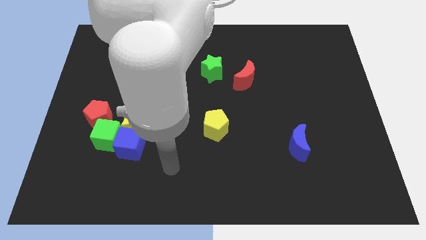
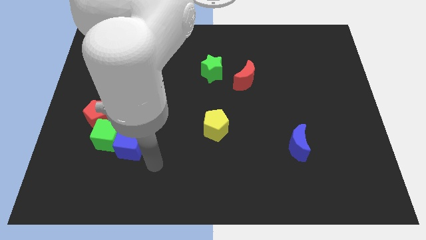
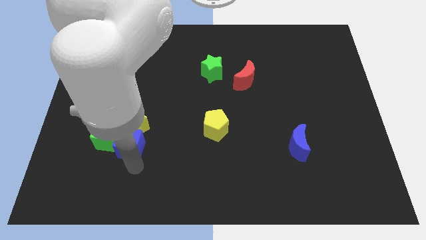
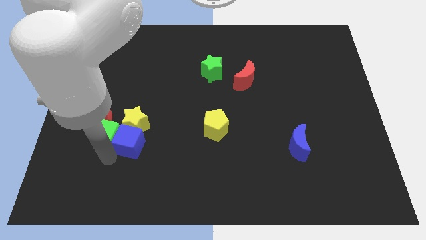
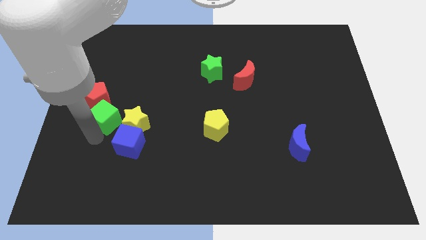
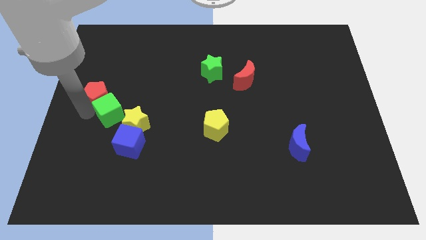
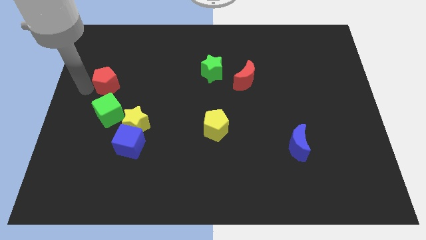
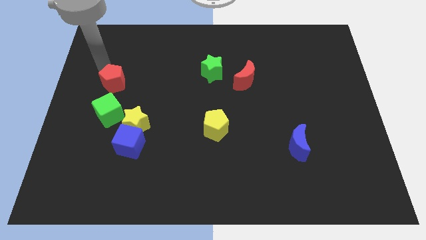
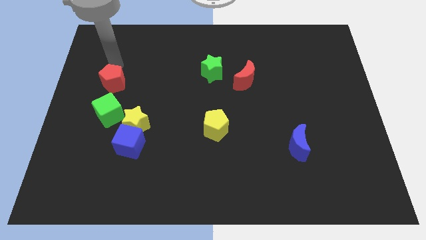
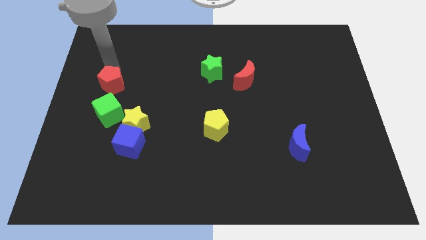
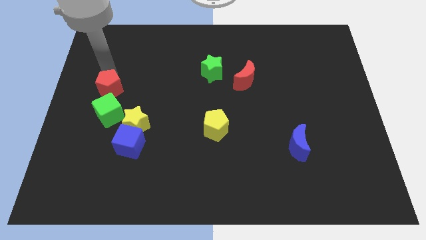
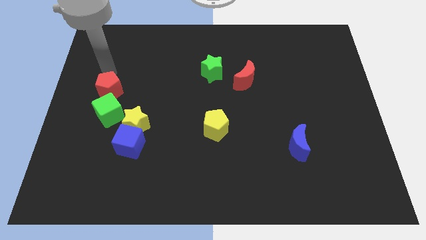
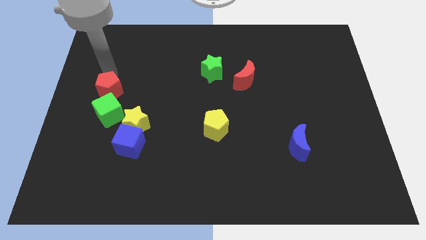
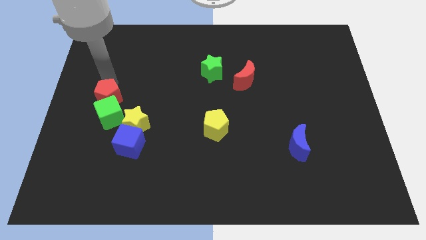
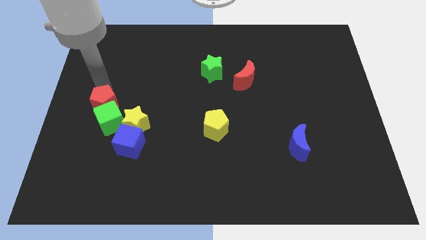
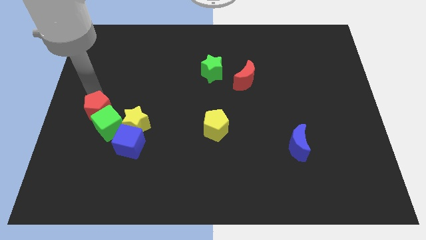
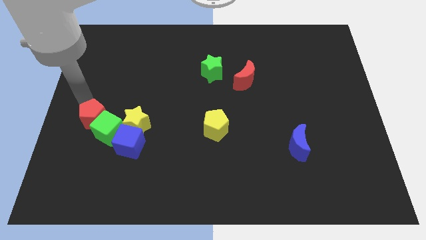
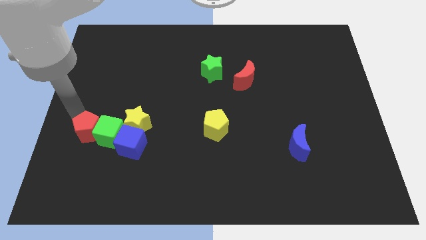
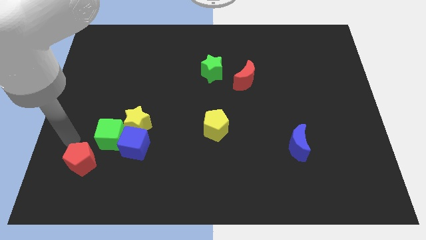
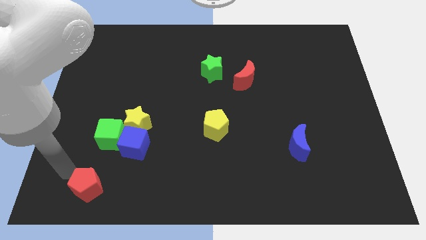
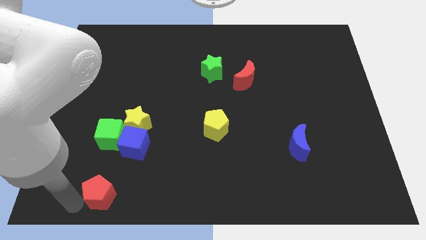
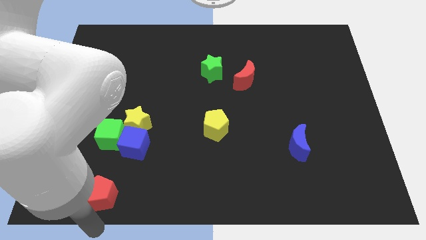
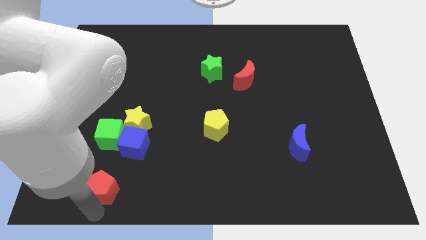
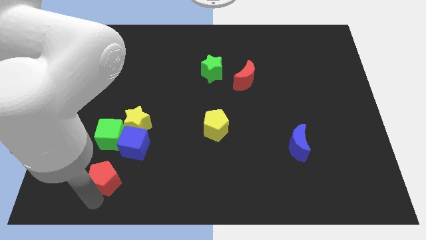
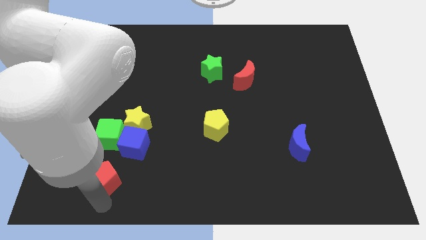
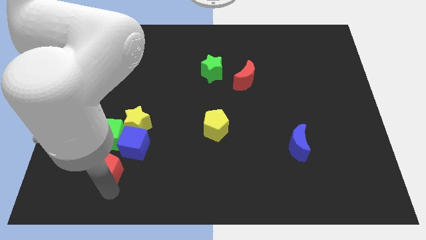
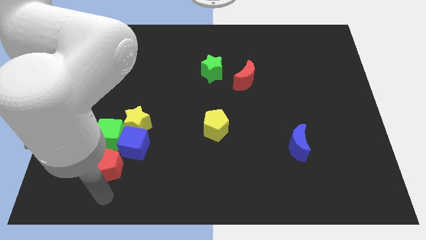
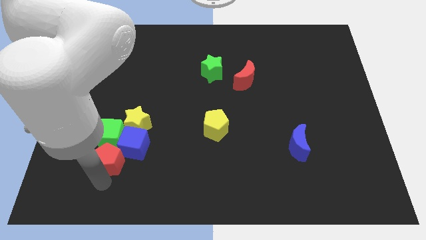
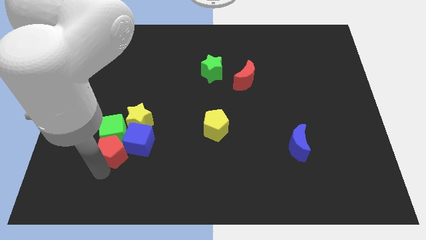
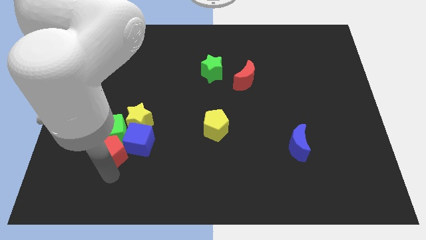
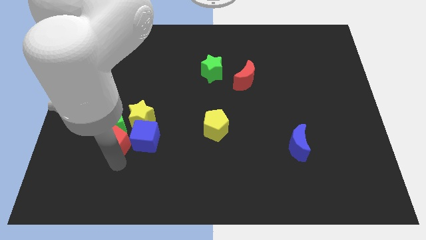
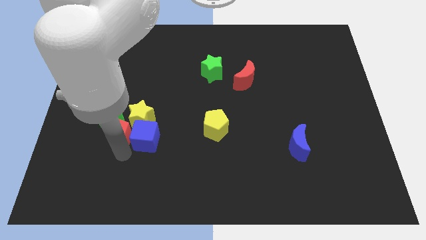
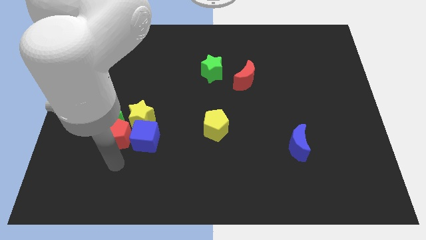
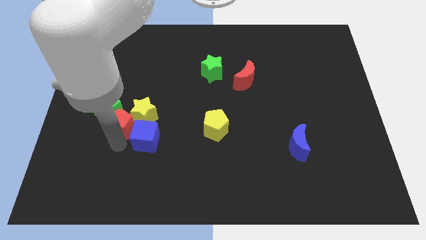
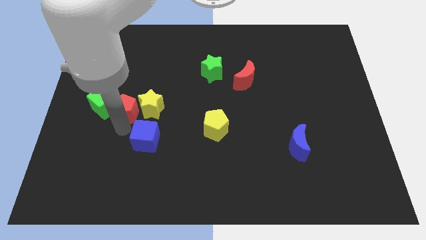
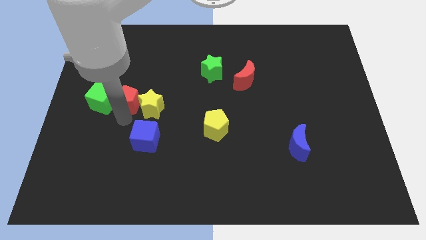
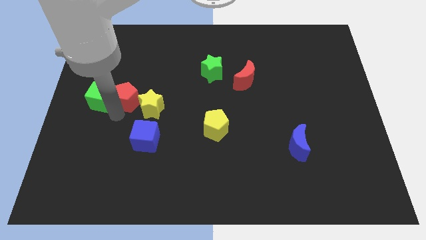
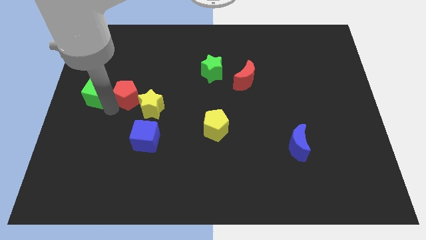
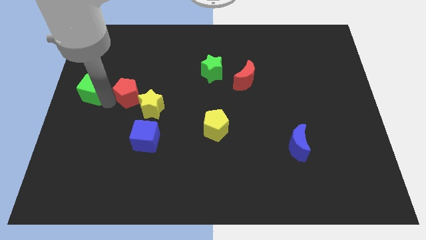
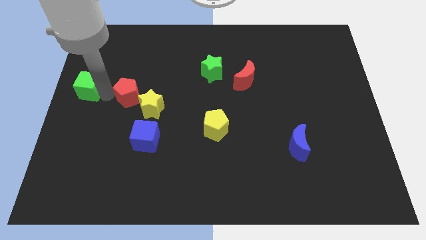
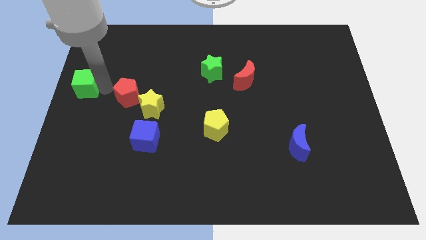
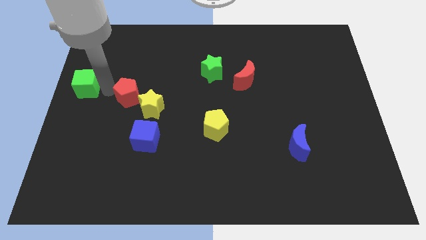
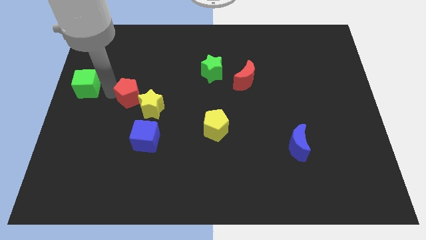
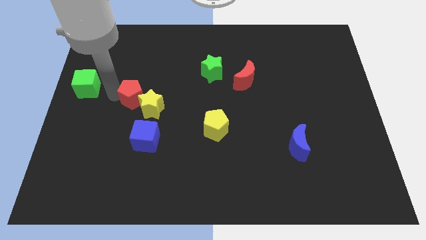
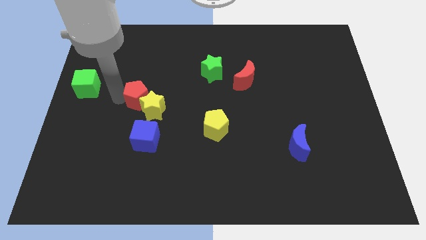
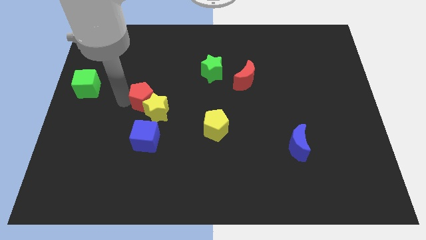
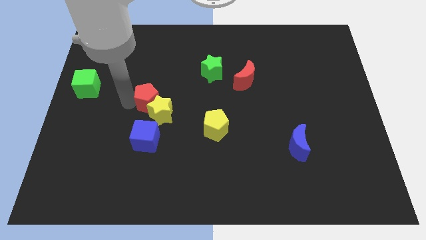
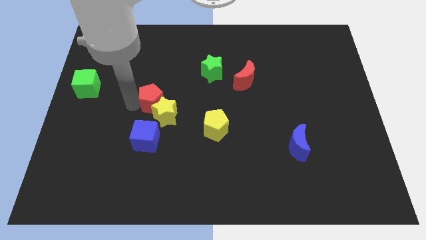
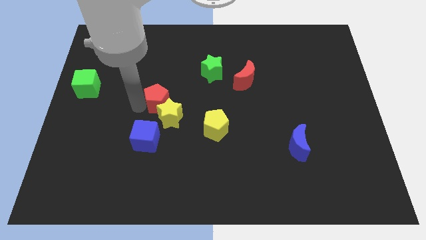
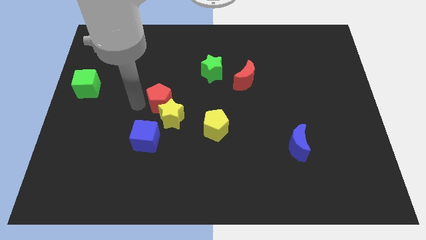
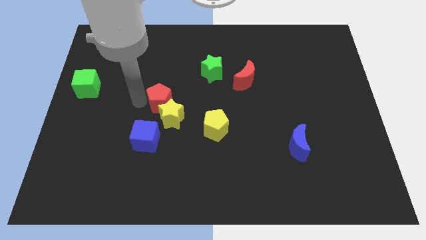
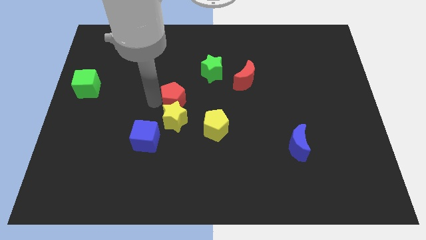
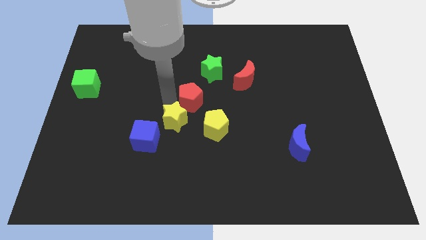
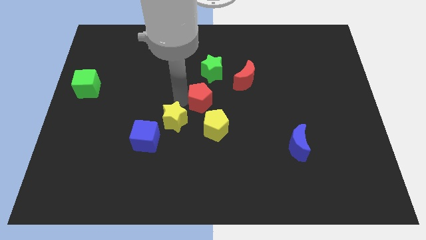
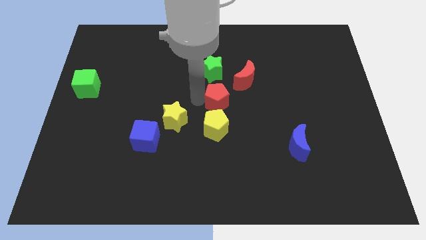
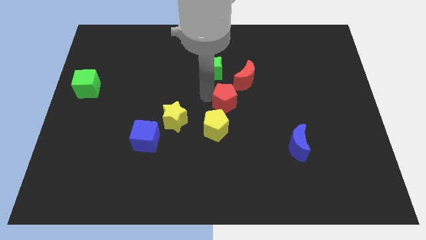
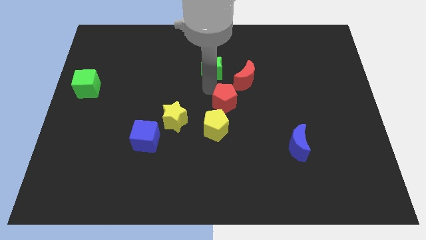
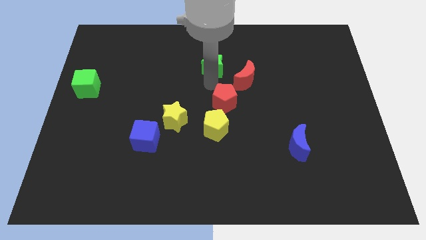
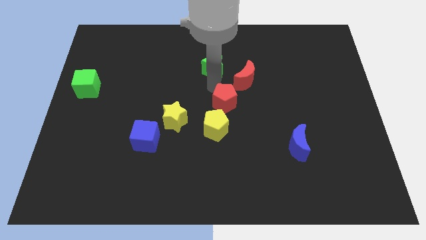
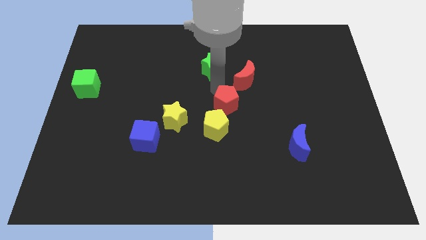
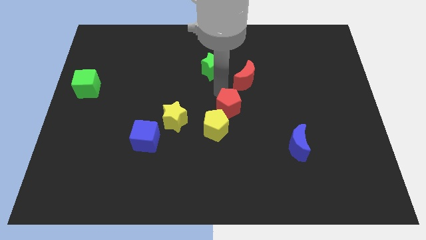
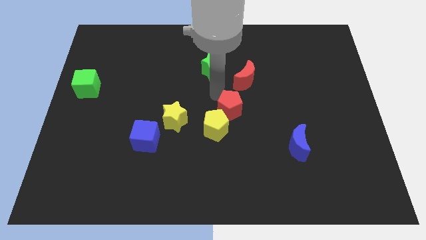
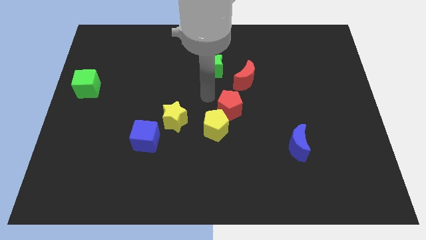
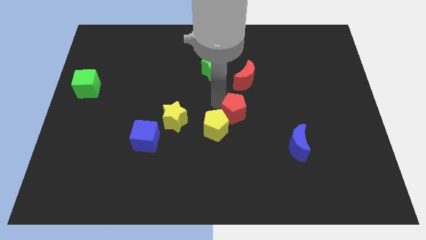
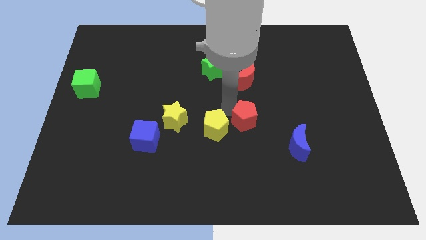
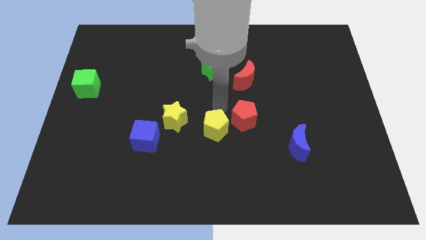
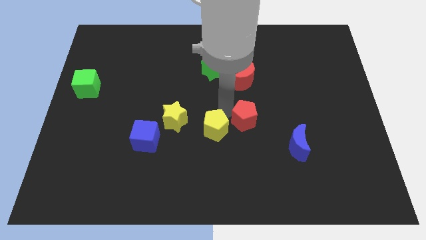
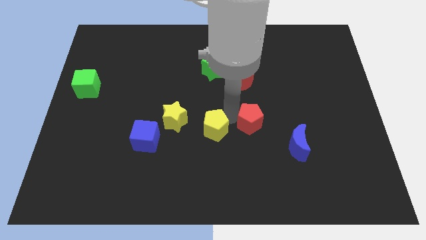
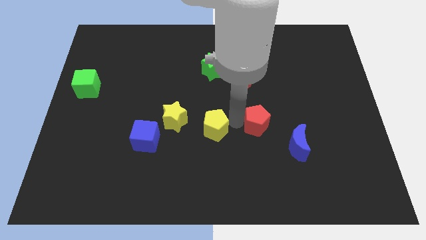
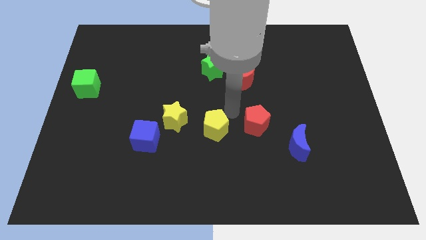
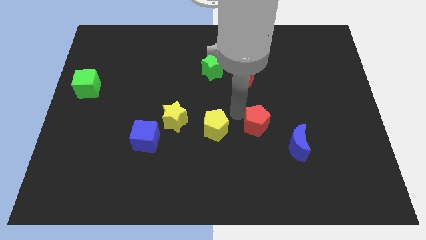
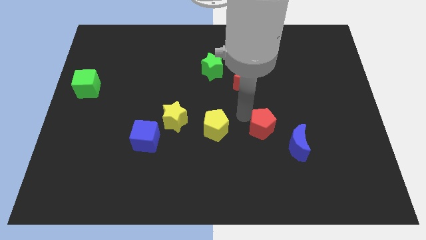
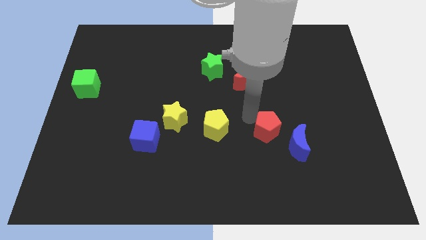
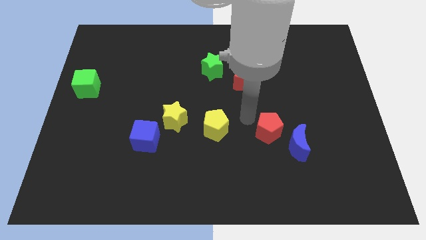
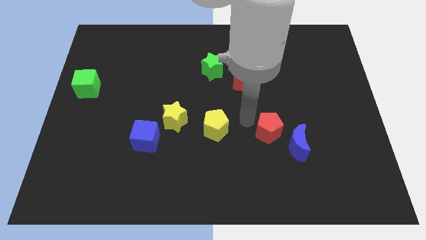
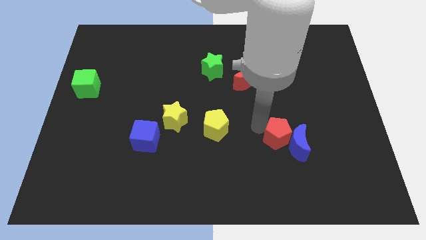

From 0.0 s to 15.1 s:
put the red pentagon close to the blue moon
